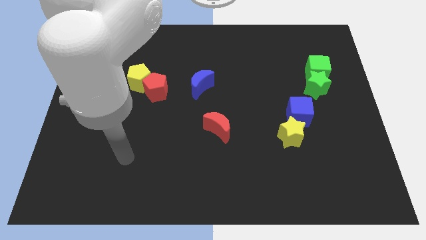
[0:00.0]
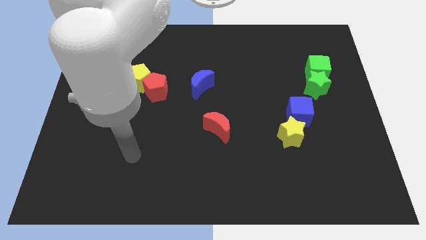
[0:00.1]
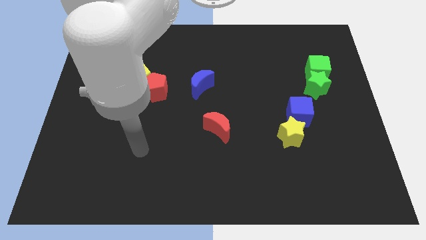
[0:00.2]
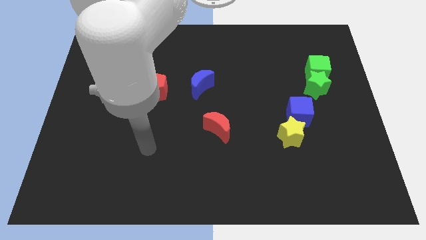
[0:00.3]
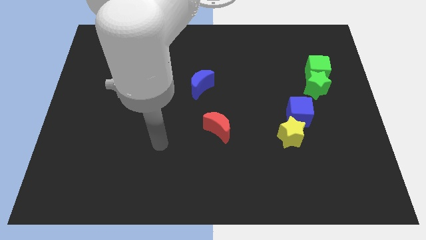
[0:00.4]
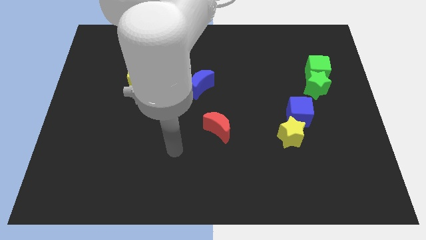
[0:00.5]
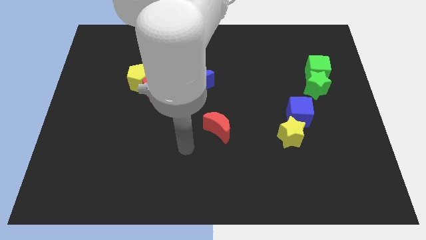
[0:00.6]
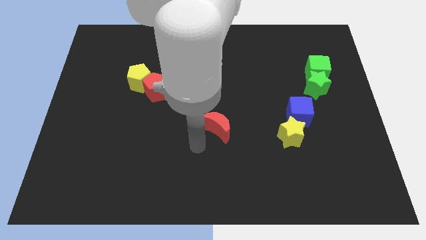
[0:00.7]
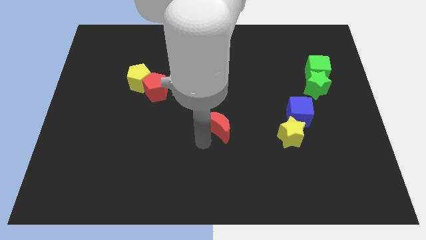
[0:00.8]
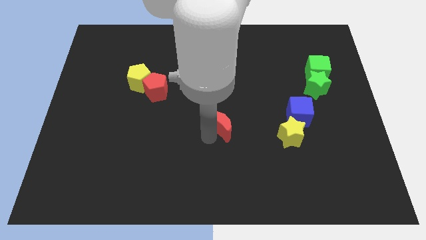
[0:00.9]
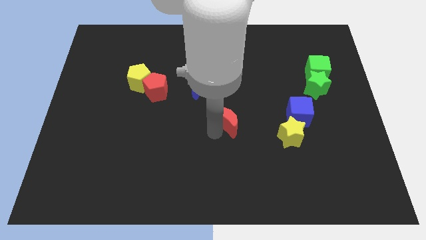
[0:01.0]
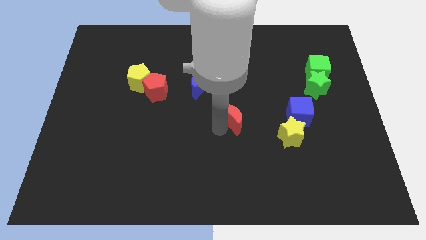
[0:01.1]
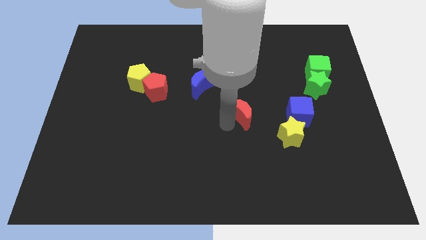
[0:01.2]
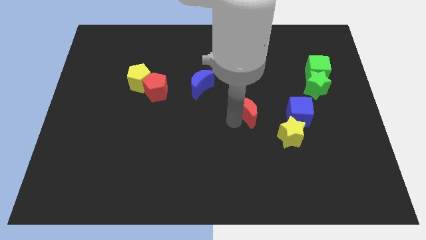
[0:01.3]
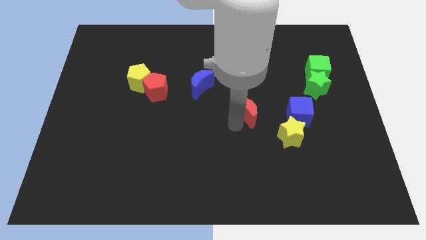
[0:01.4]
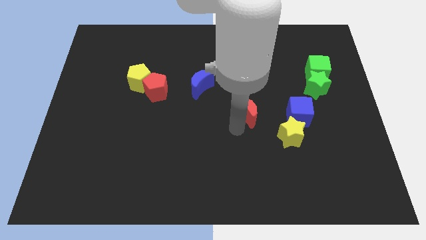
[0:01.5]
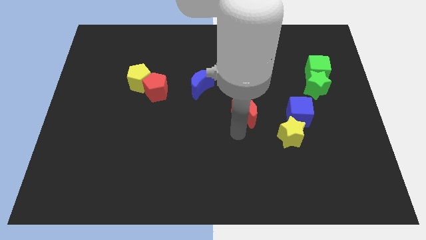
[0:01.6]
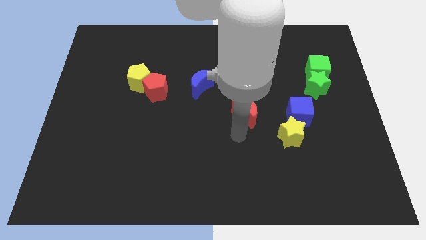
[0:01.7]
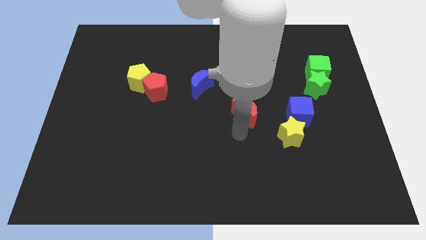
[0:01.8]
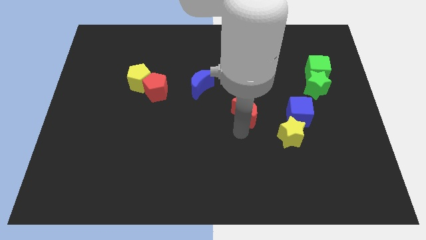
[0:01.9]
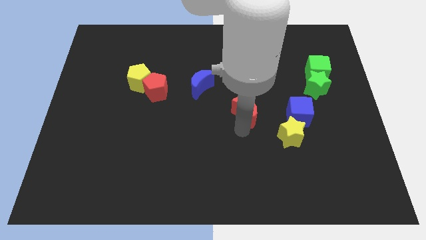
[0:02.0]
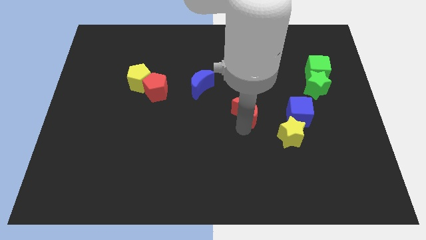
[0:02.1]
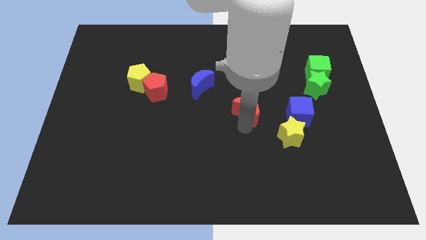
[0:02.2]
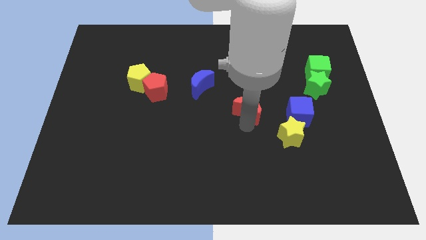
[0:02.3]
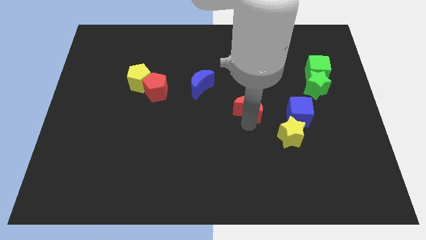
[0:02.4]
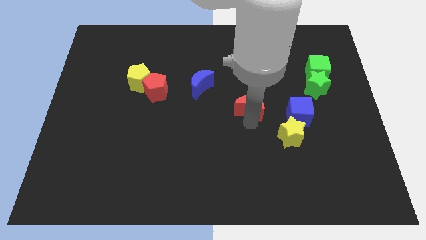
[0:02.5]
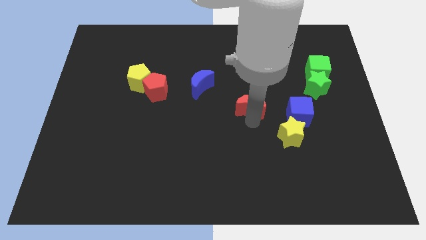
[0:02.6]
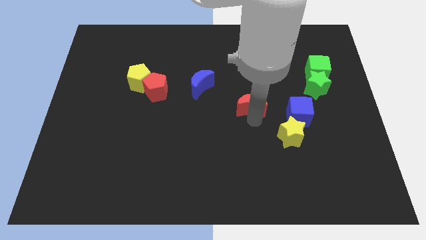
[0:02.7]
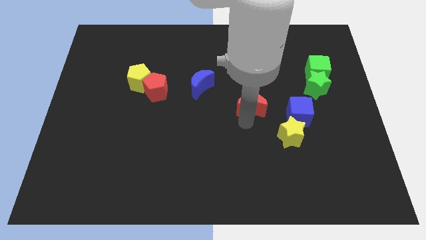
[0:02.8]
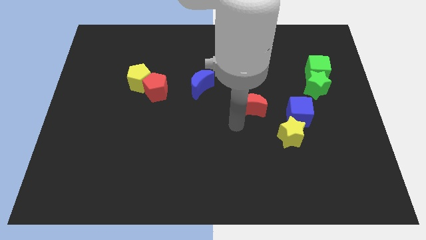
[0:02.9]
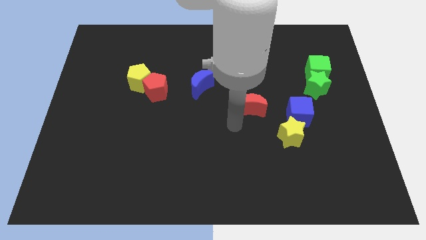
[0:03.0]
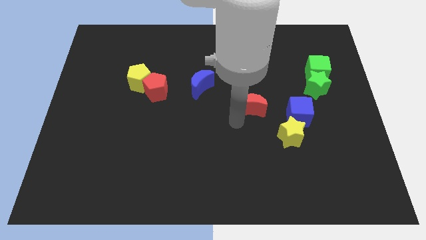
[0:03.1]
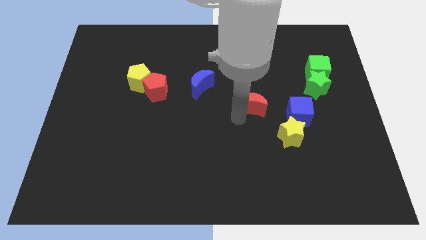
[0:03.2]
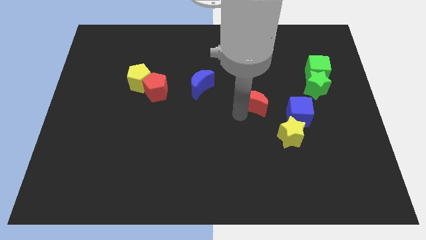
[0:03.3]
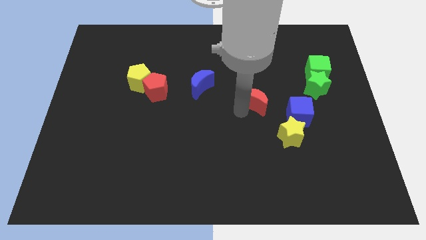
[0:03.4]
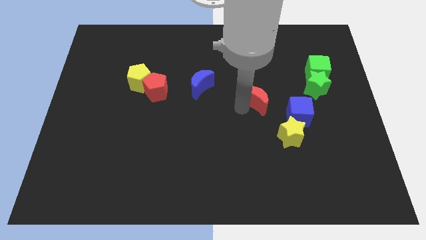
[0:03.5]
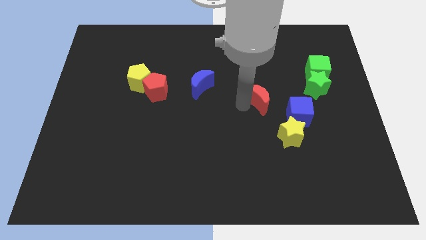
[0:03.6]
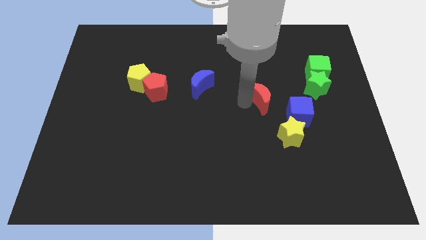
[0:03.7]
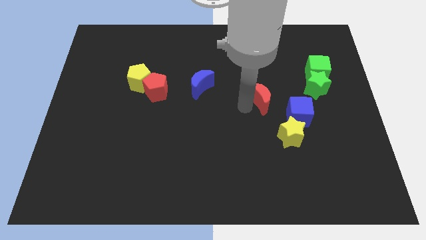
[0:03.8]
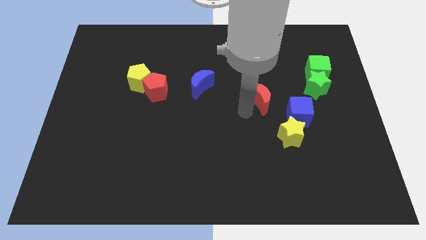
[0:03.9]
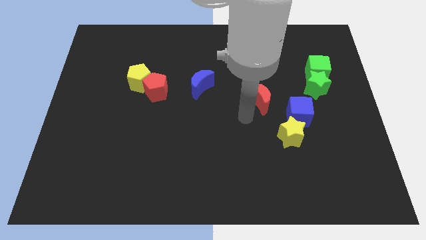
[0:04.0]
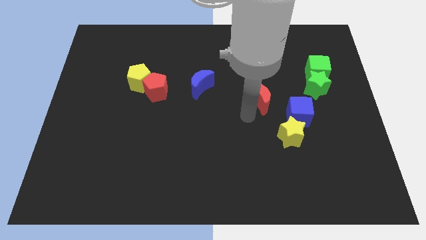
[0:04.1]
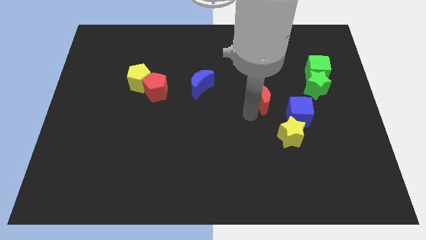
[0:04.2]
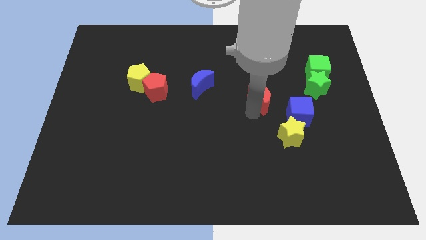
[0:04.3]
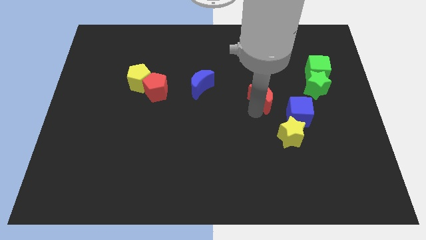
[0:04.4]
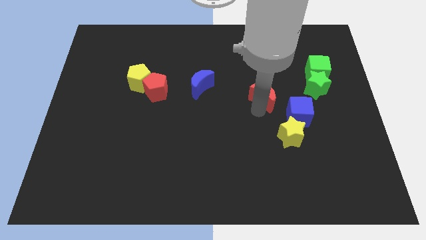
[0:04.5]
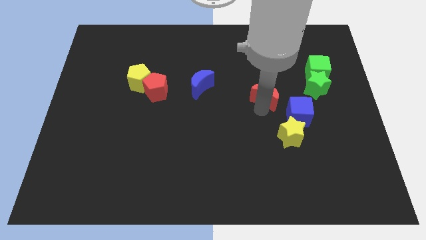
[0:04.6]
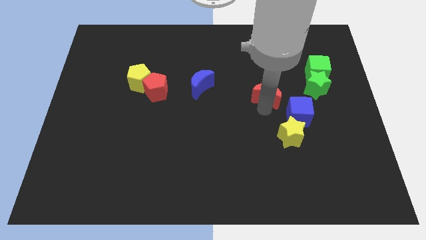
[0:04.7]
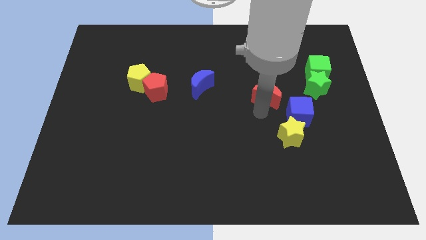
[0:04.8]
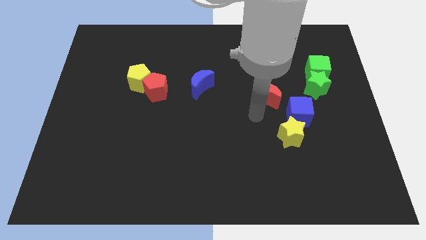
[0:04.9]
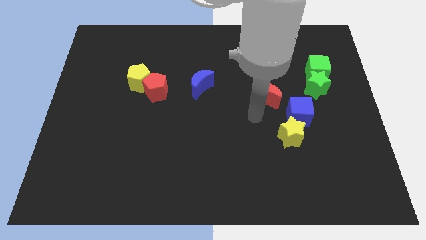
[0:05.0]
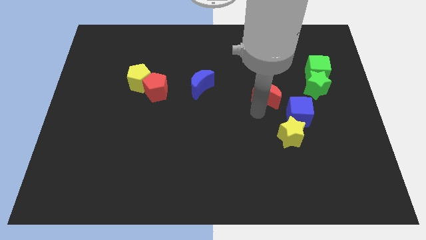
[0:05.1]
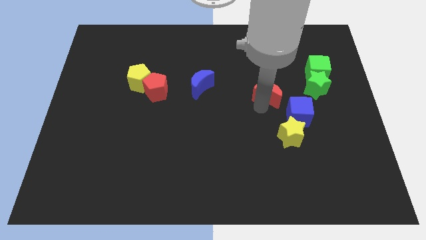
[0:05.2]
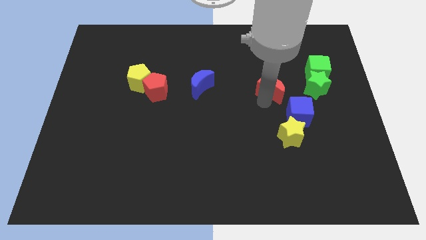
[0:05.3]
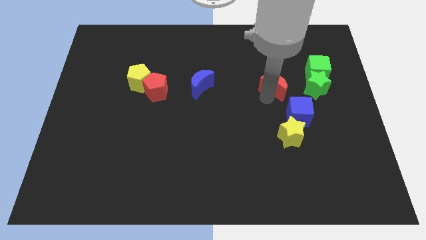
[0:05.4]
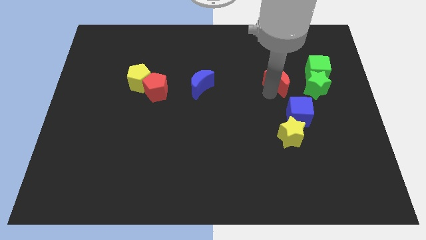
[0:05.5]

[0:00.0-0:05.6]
move the red moon upwards and then right

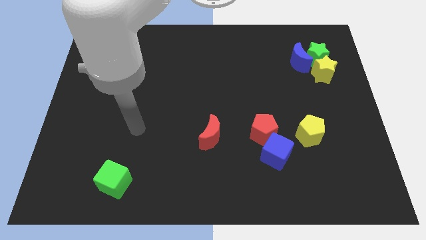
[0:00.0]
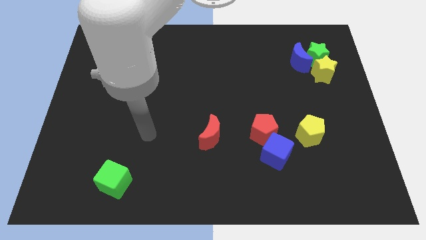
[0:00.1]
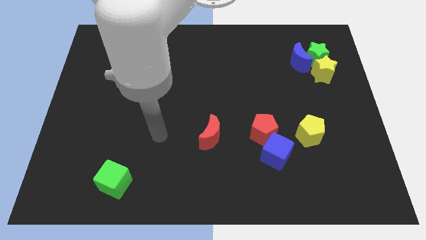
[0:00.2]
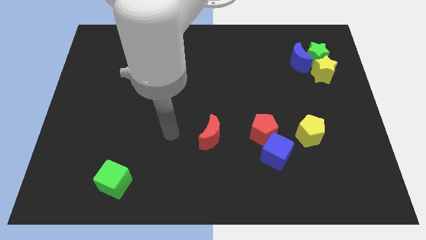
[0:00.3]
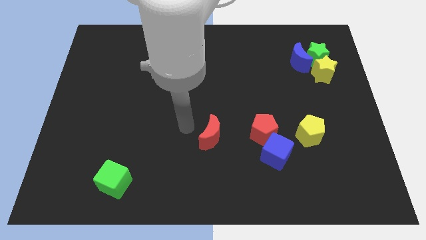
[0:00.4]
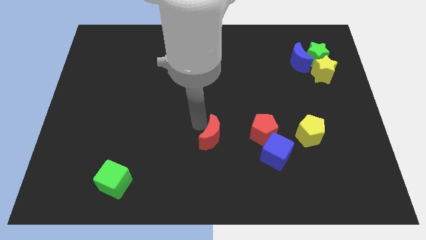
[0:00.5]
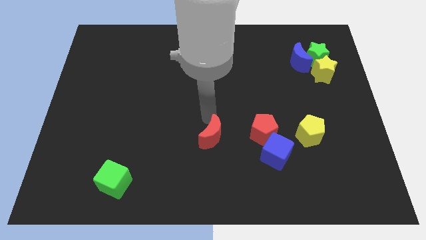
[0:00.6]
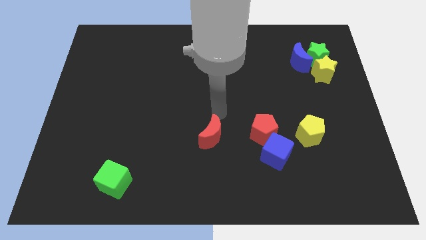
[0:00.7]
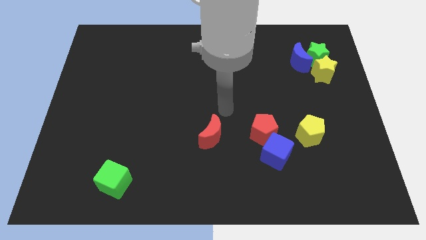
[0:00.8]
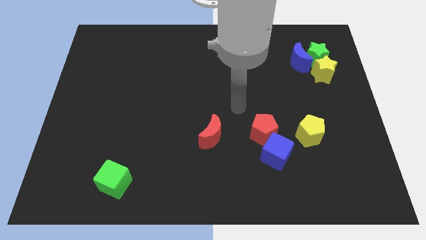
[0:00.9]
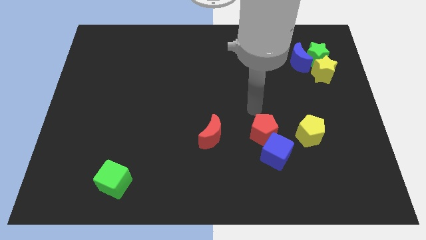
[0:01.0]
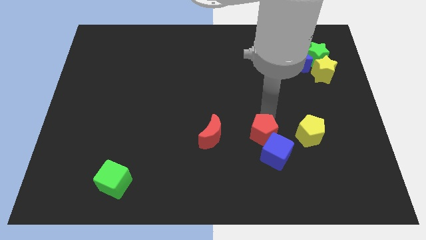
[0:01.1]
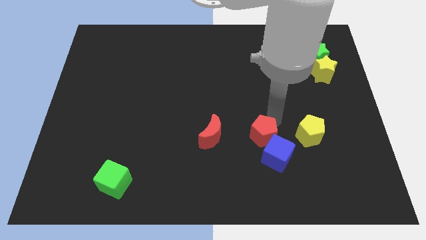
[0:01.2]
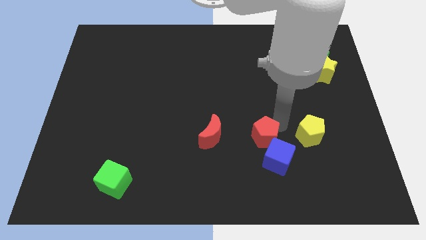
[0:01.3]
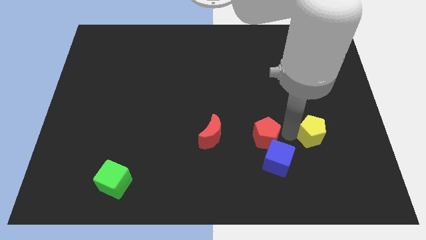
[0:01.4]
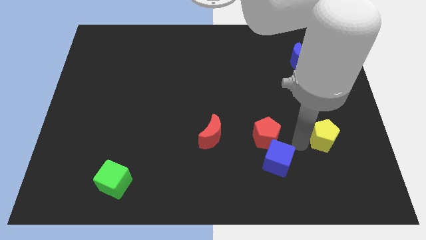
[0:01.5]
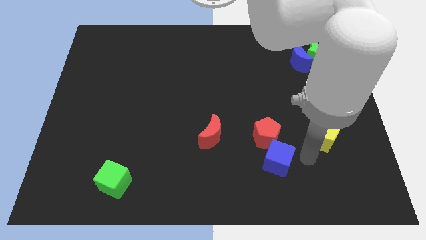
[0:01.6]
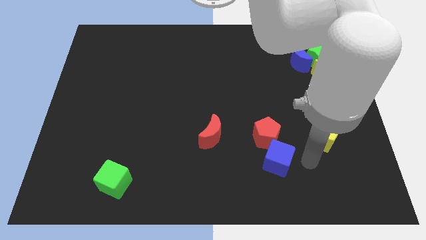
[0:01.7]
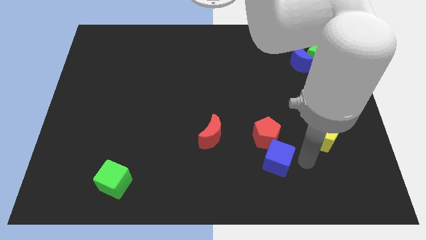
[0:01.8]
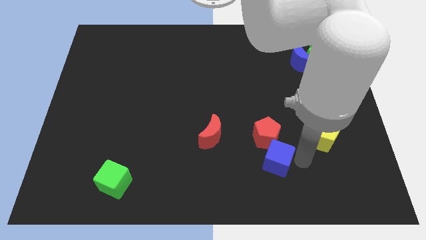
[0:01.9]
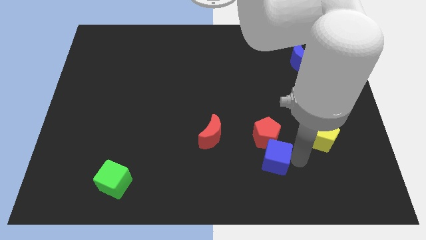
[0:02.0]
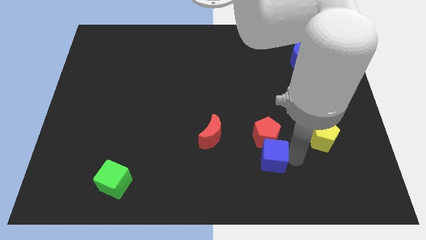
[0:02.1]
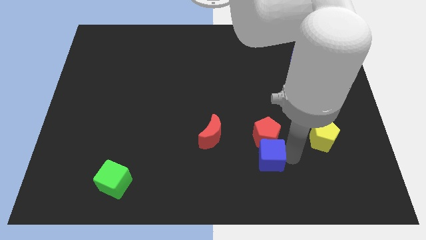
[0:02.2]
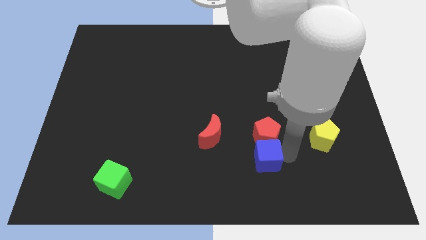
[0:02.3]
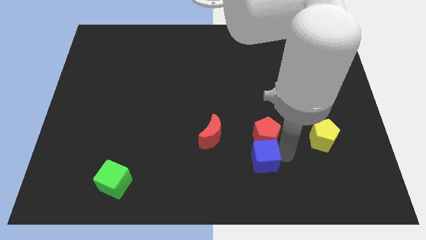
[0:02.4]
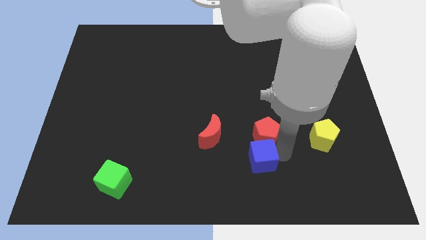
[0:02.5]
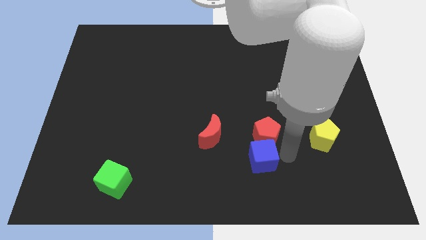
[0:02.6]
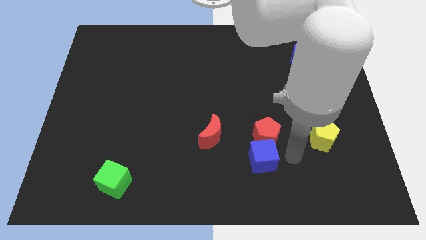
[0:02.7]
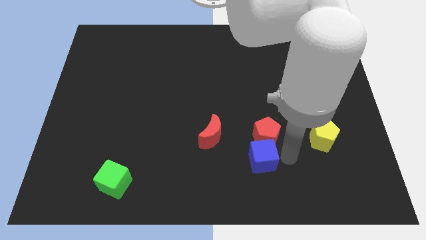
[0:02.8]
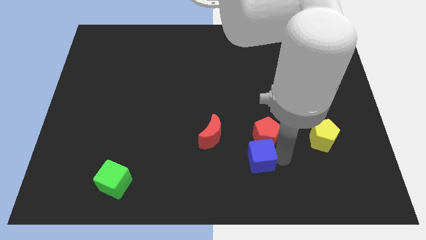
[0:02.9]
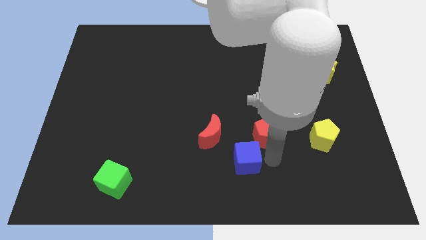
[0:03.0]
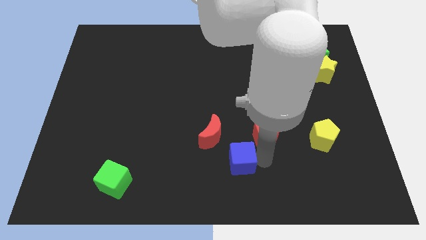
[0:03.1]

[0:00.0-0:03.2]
slightly slide the blue cube left
